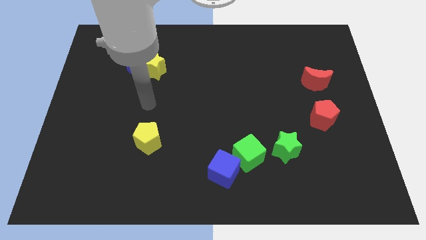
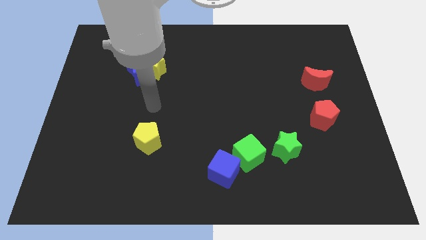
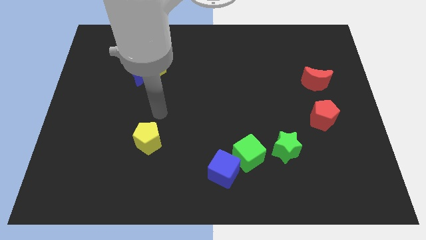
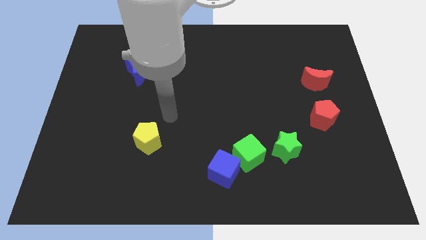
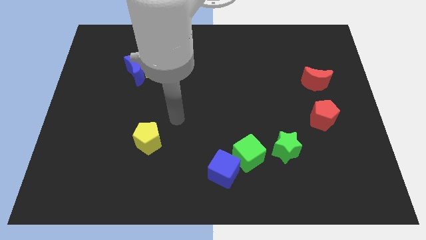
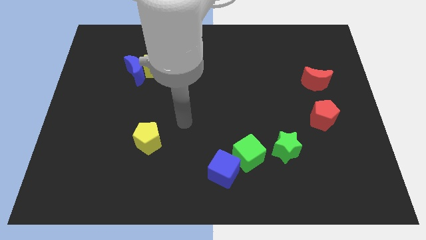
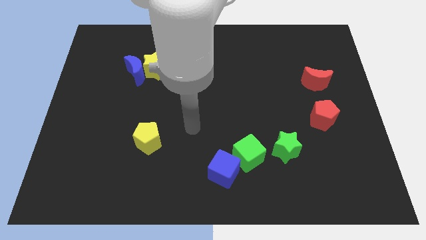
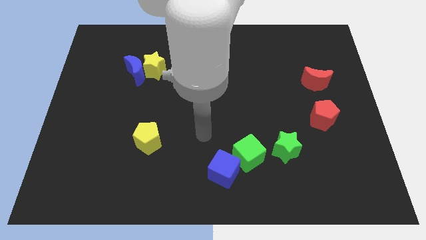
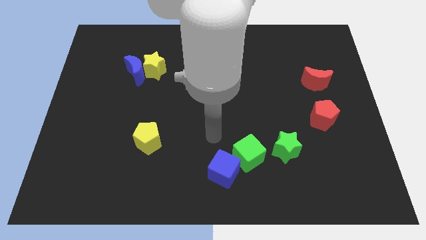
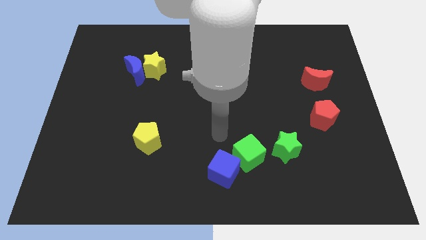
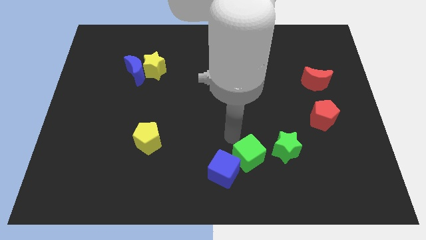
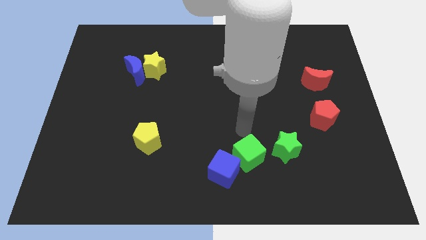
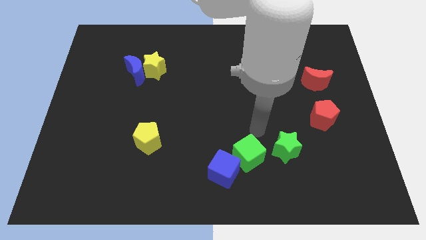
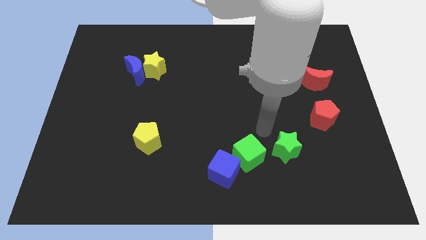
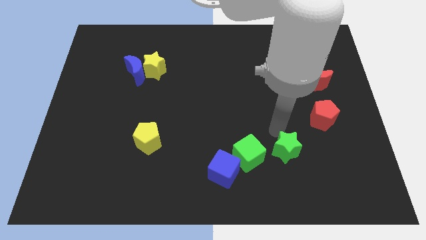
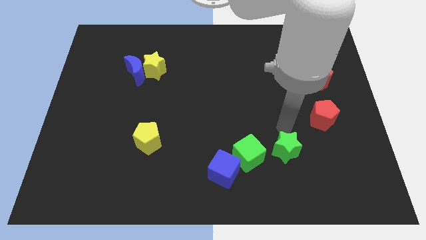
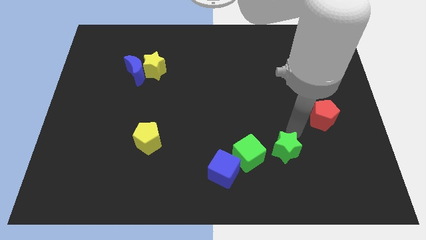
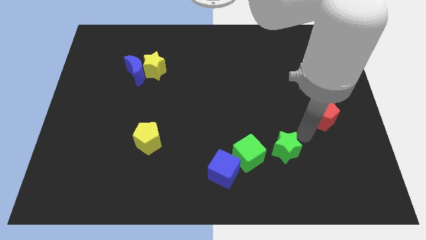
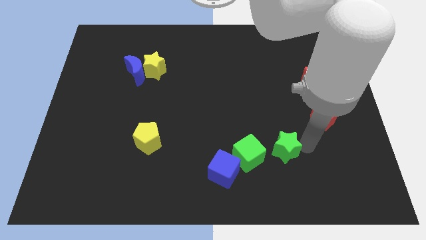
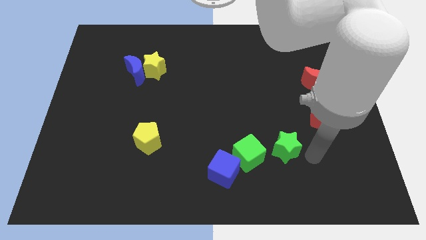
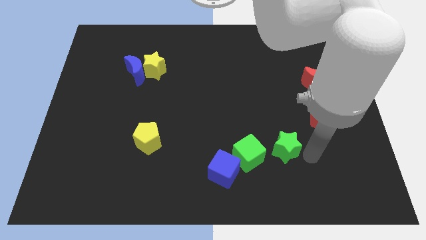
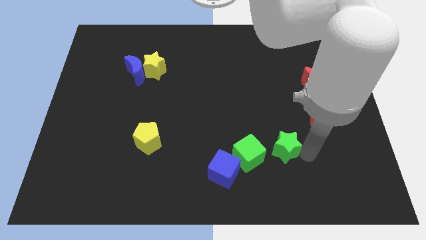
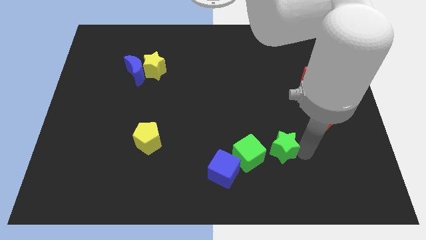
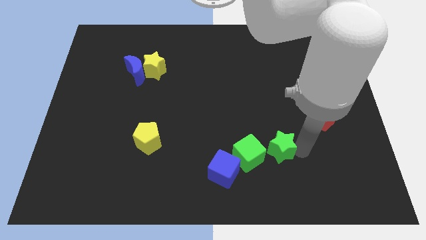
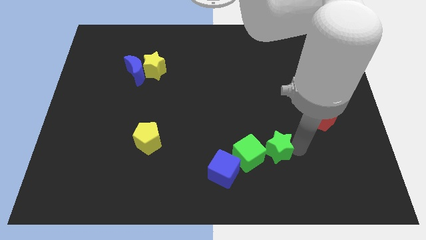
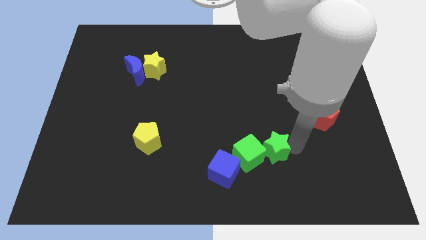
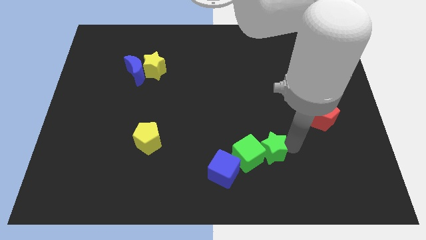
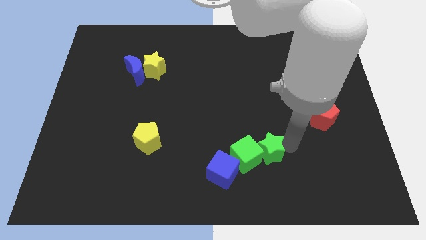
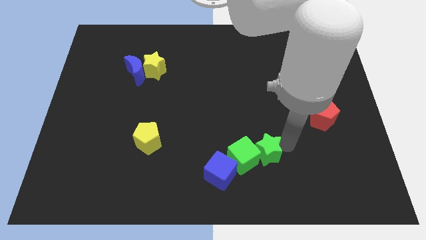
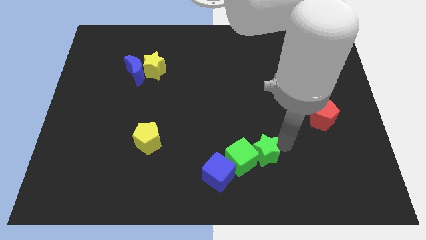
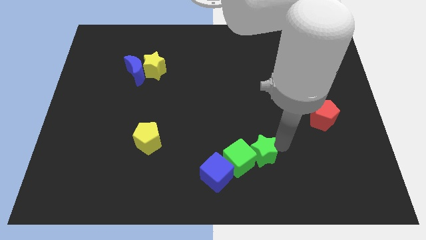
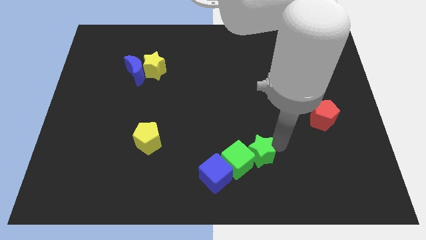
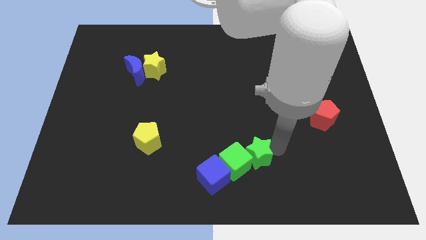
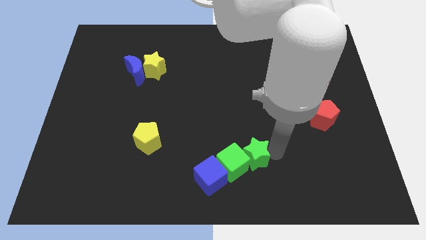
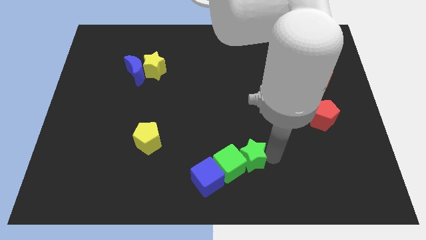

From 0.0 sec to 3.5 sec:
slightly push the green star to the left

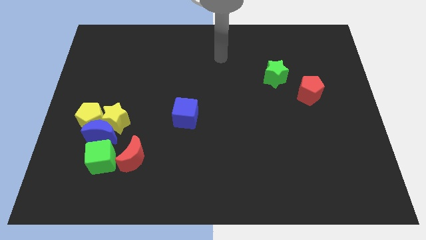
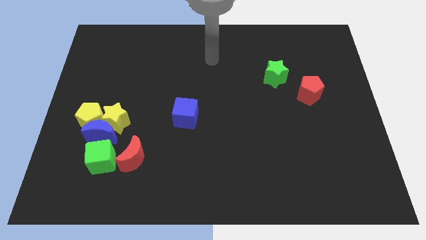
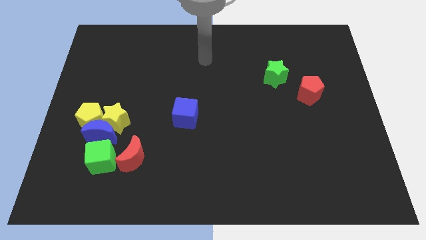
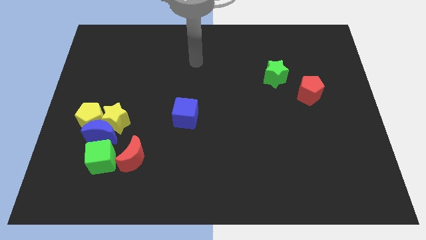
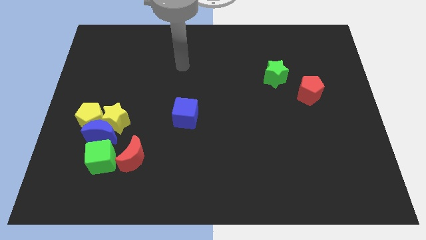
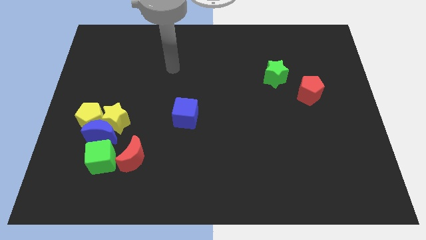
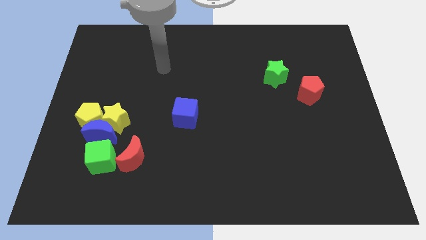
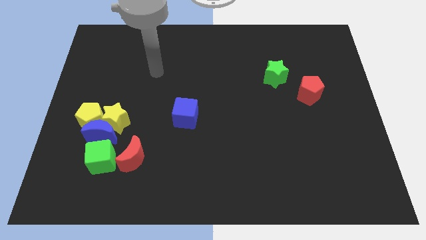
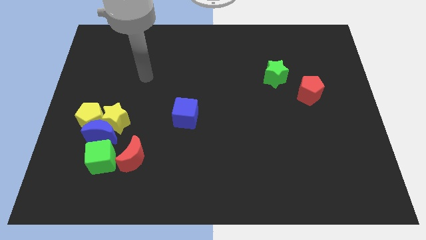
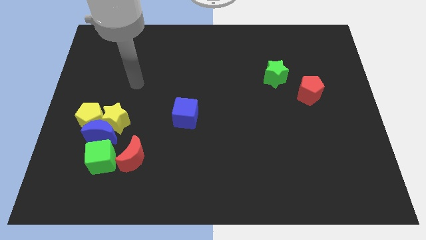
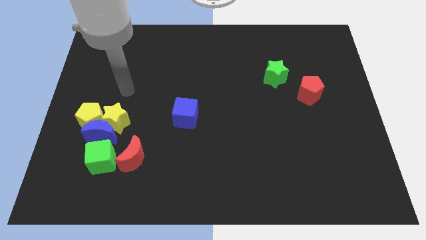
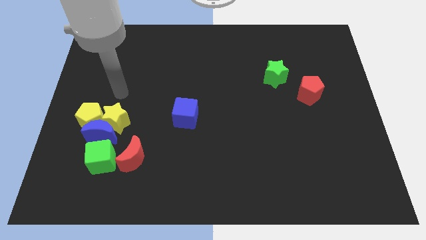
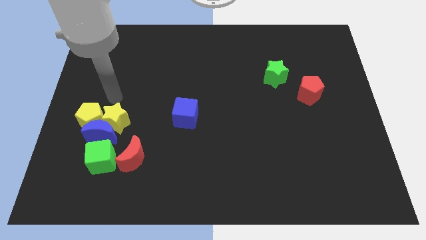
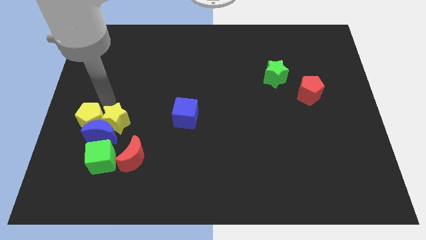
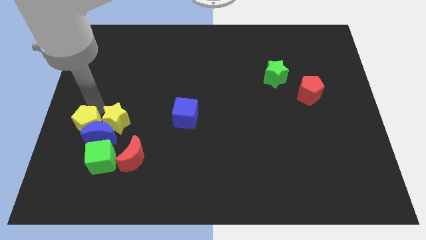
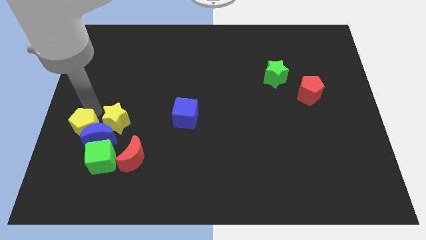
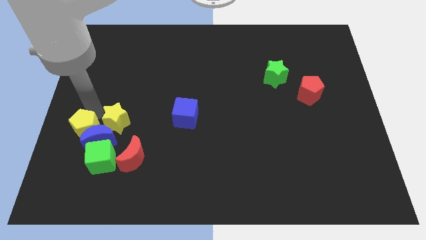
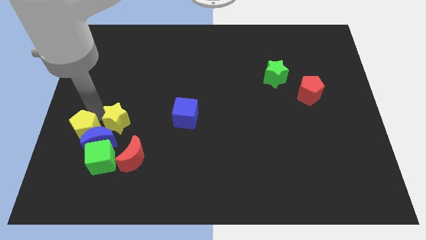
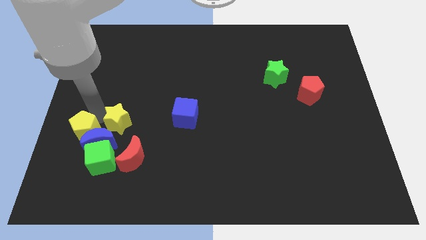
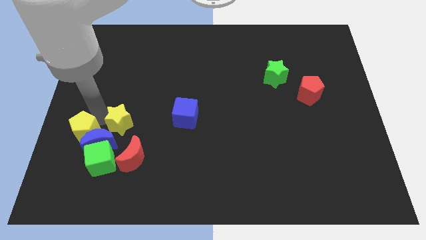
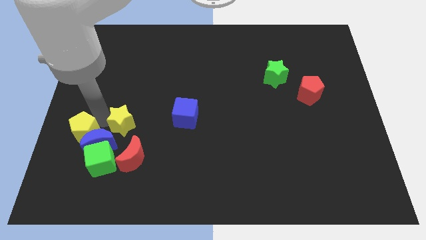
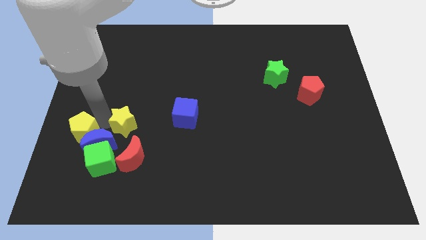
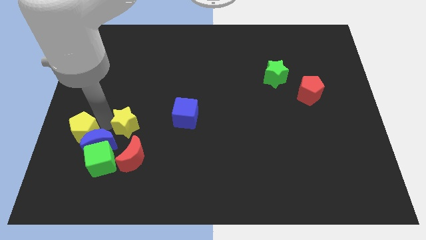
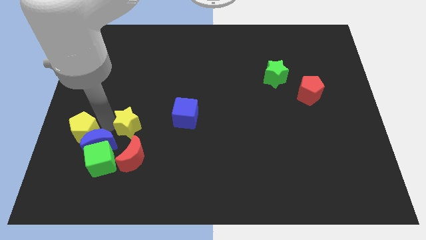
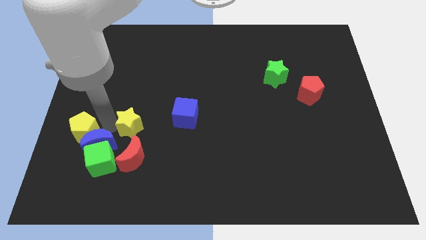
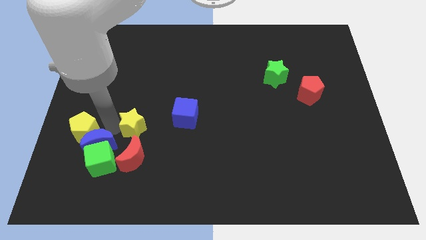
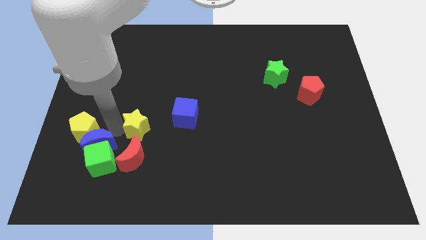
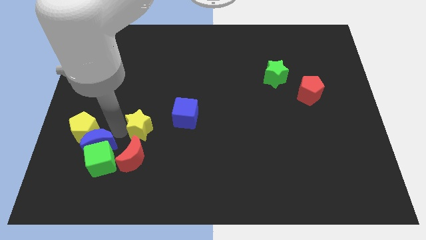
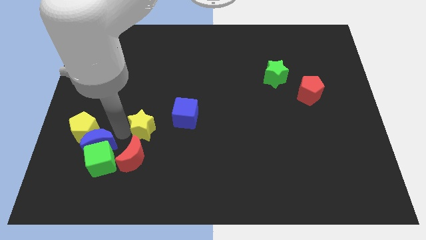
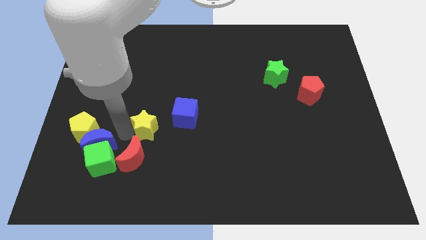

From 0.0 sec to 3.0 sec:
slide the yellow star slightly right

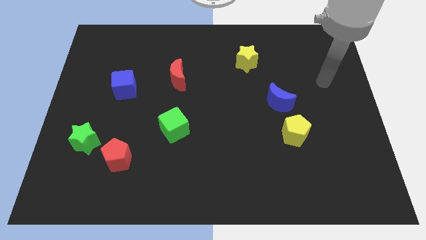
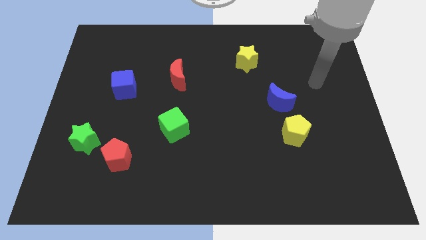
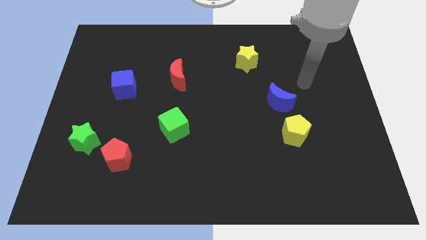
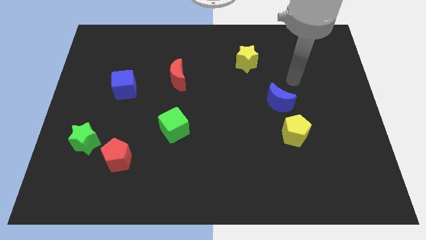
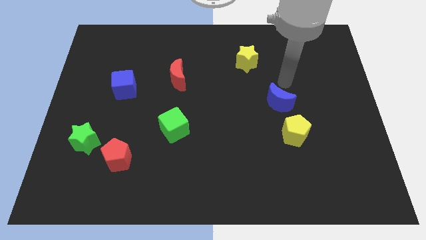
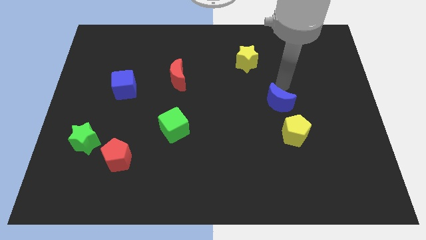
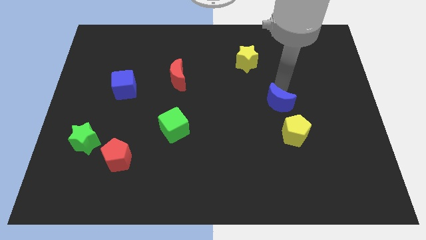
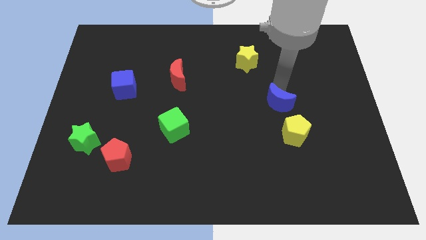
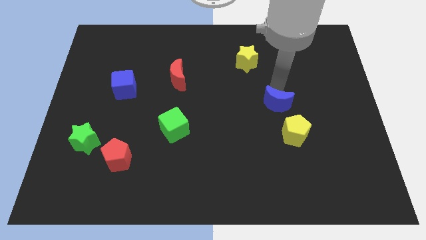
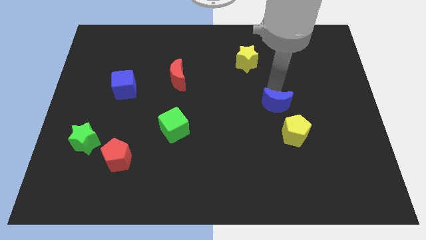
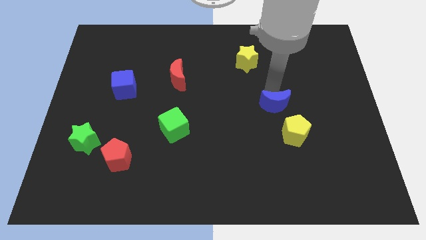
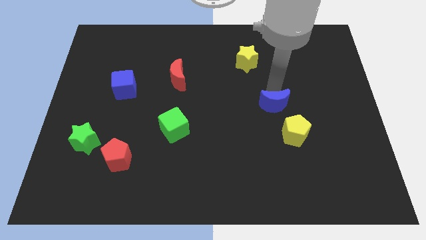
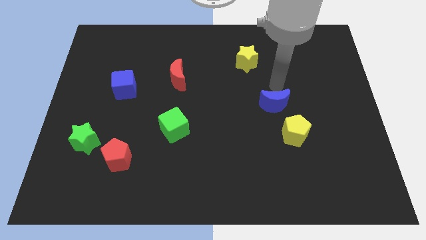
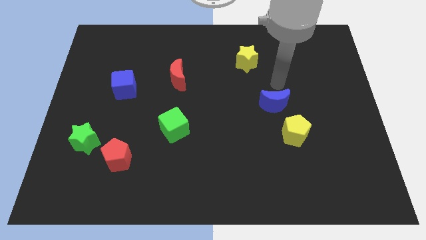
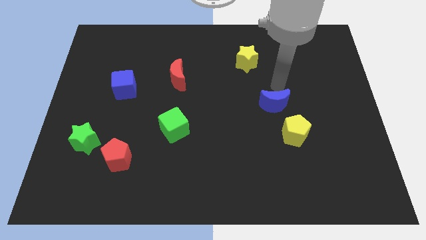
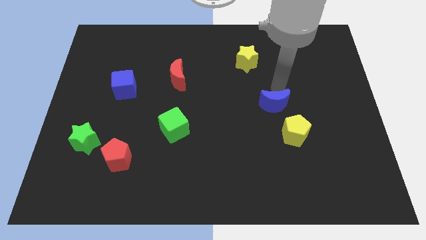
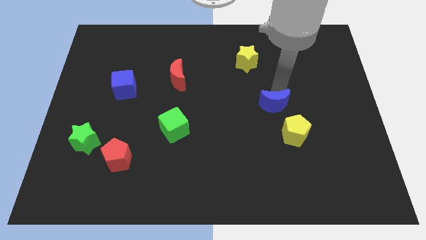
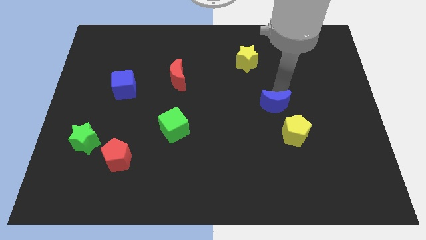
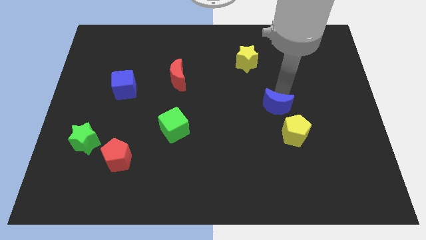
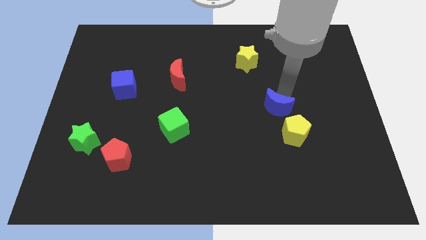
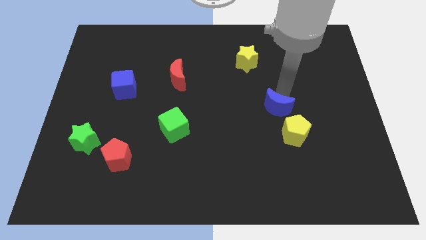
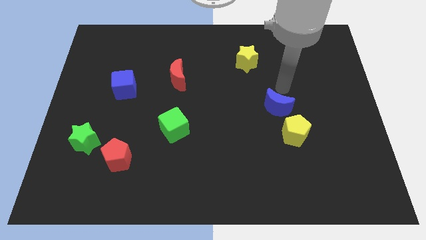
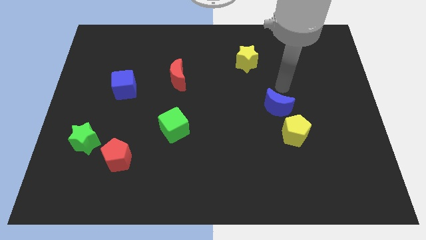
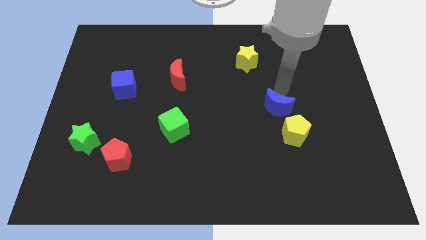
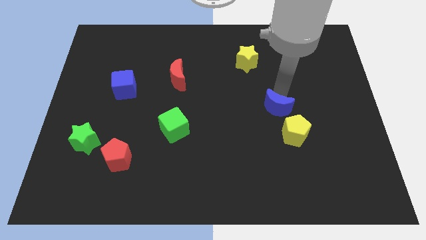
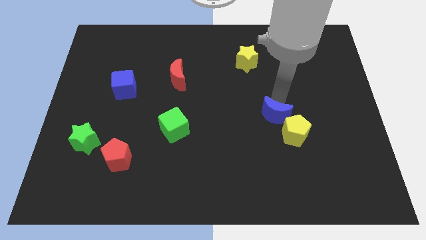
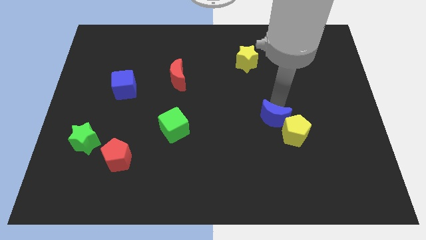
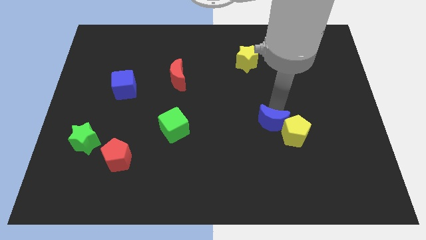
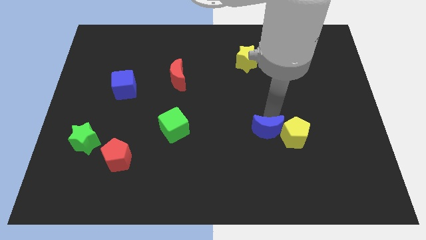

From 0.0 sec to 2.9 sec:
move the blue moon down slightly
